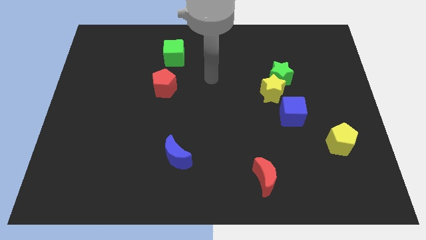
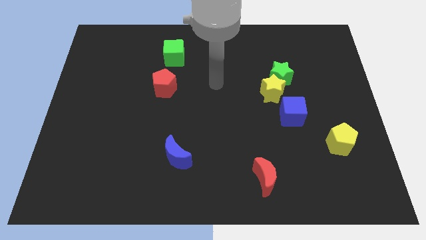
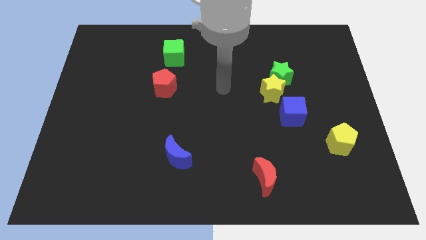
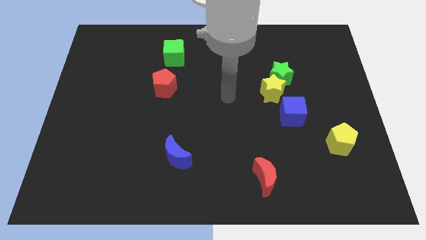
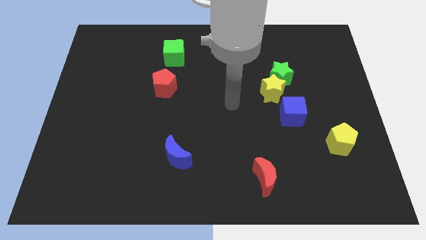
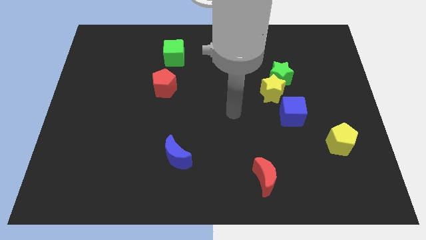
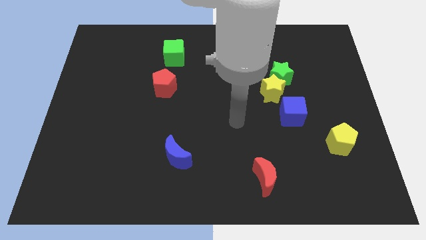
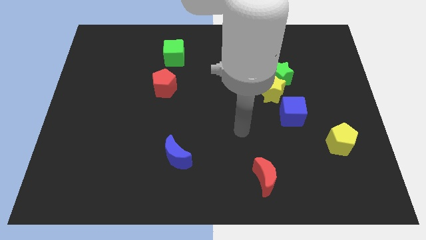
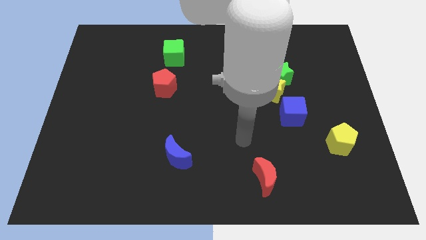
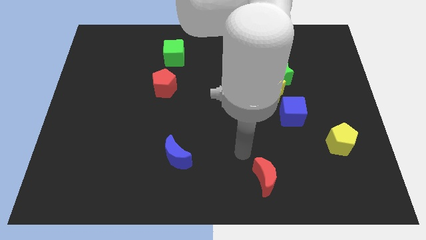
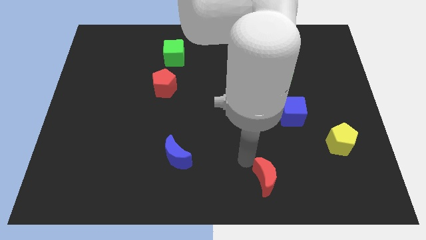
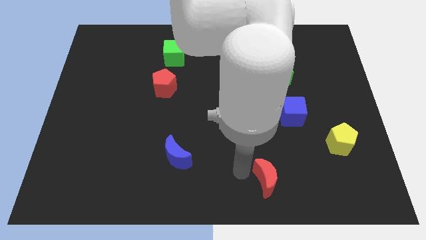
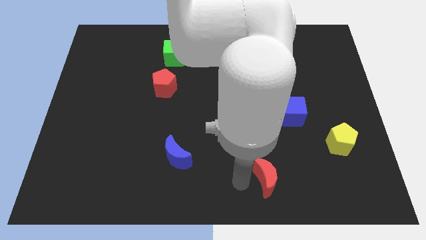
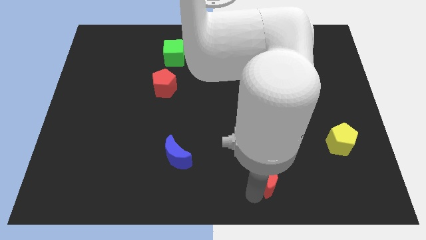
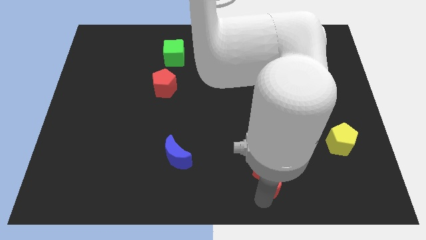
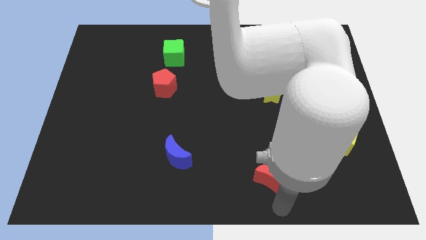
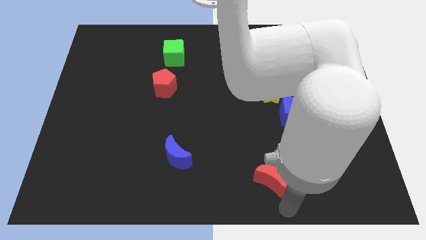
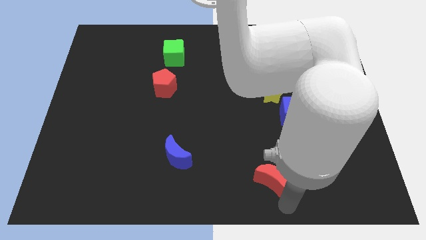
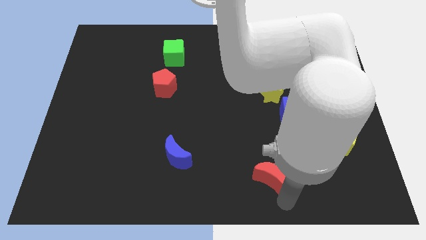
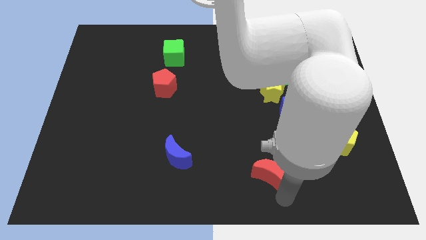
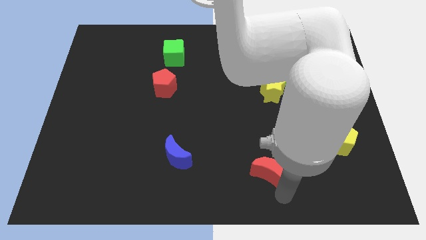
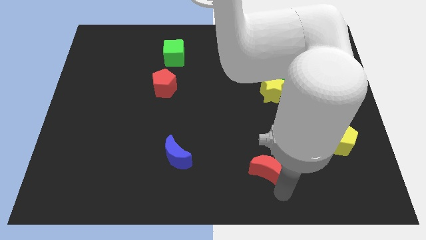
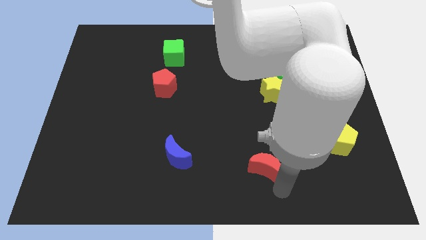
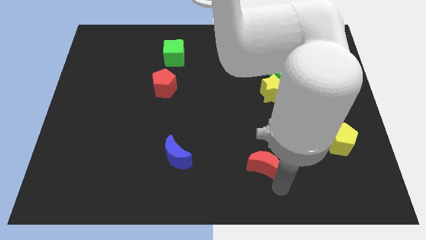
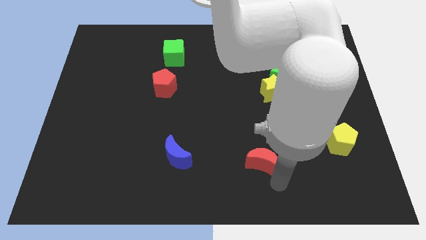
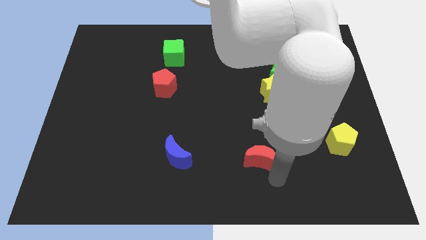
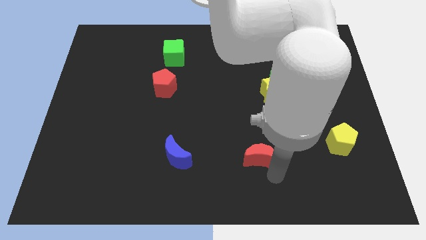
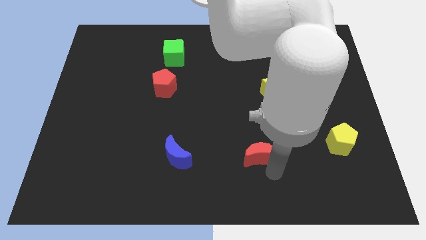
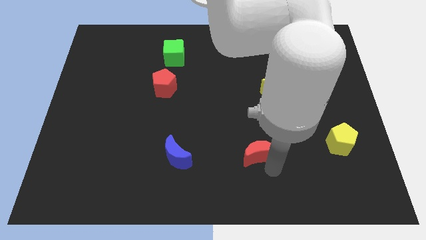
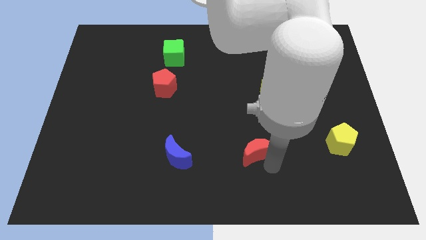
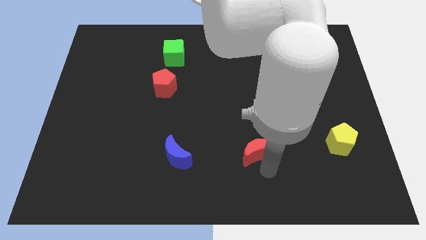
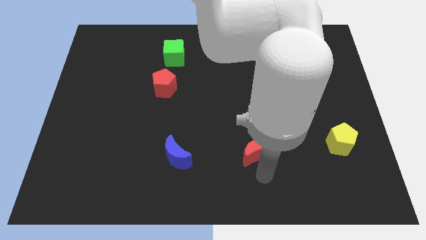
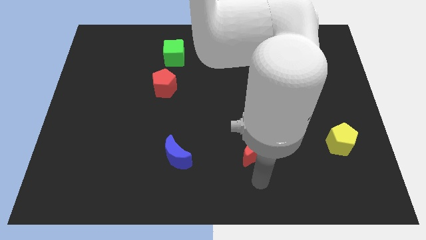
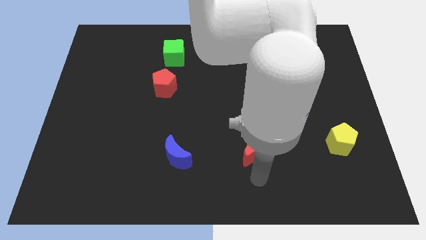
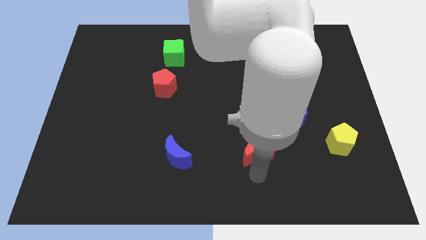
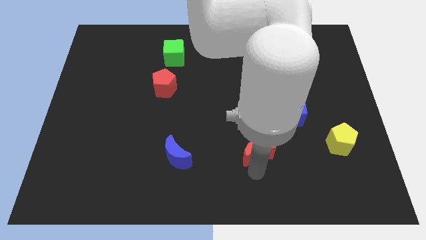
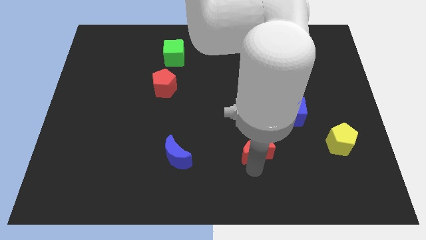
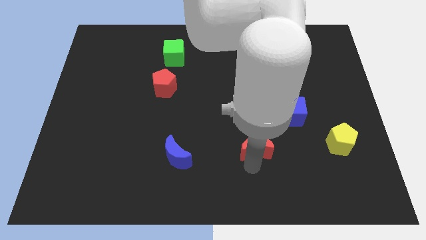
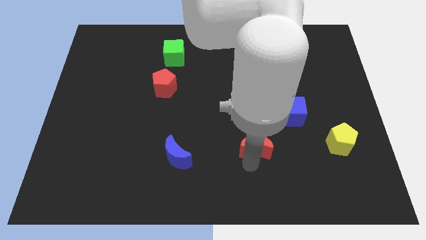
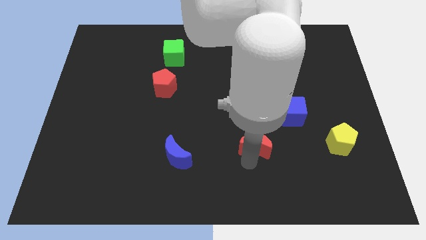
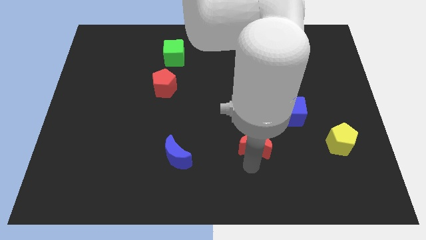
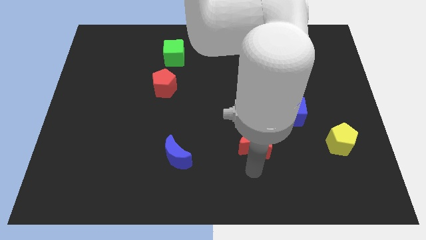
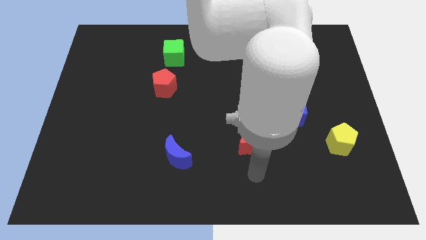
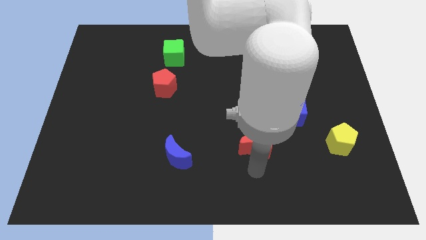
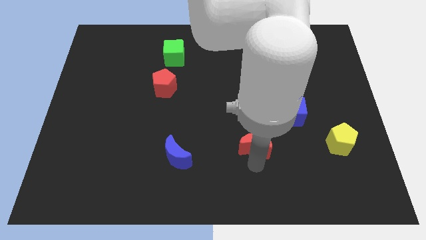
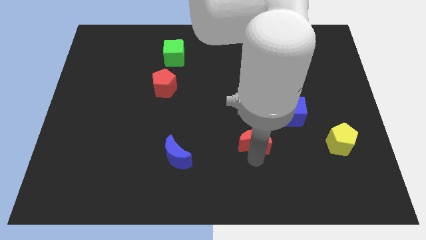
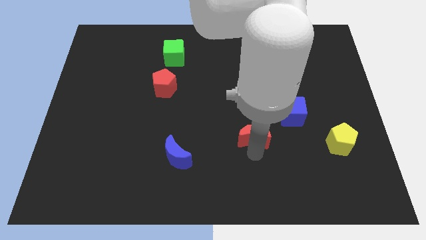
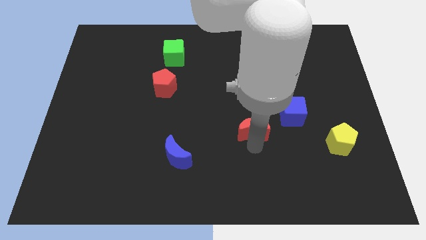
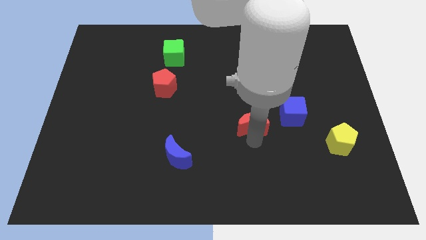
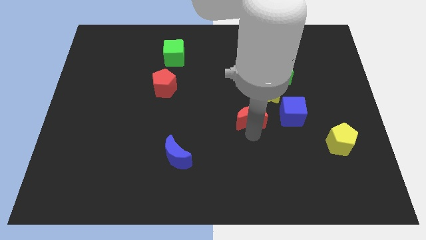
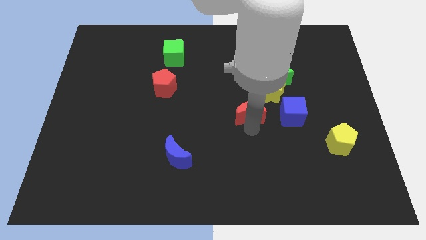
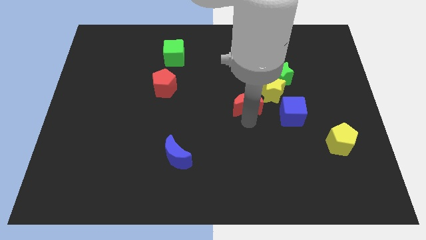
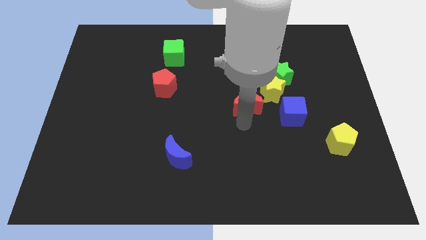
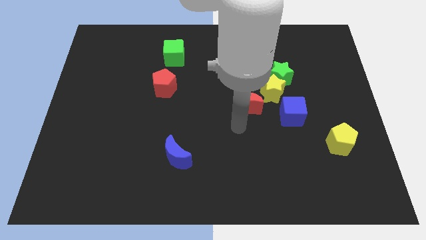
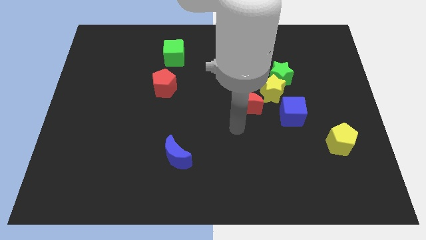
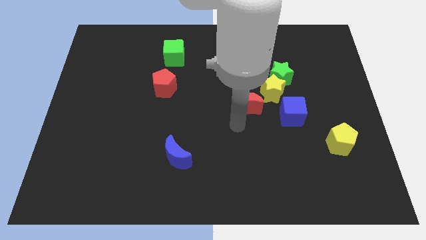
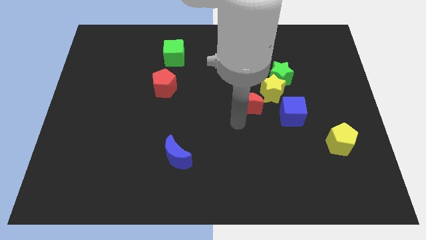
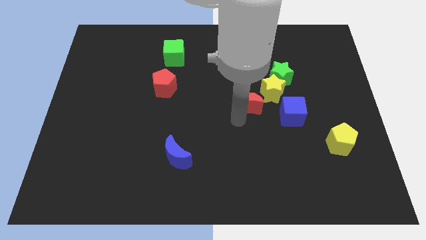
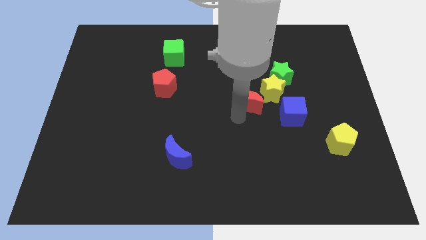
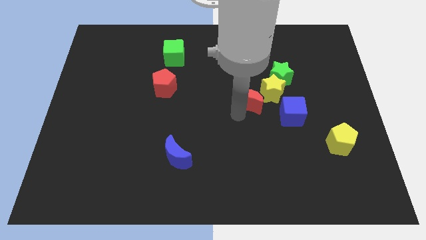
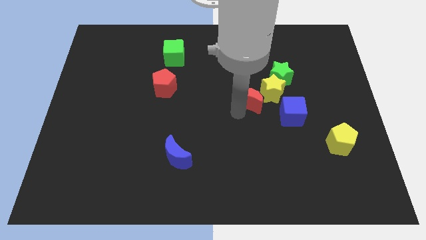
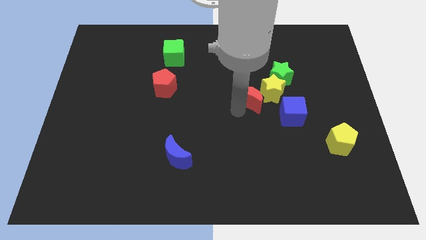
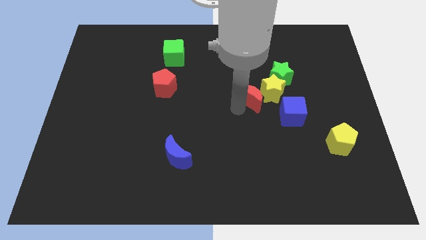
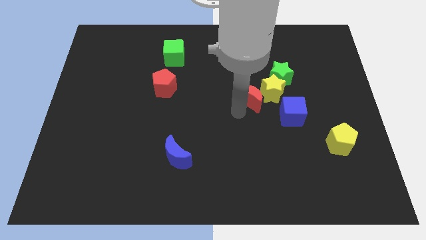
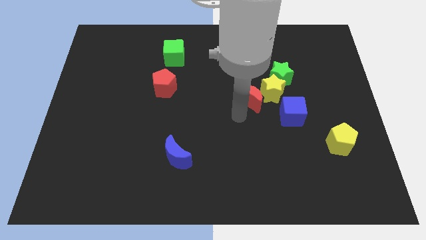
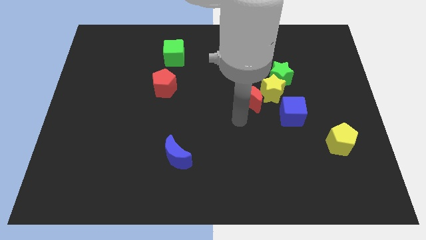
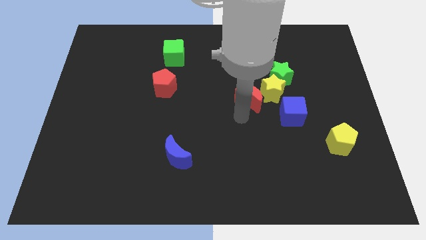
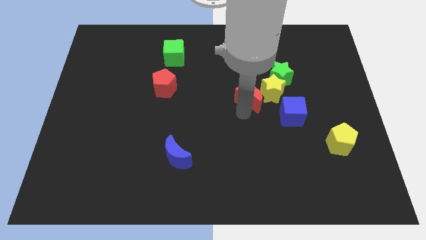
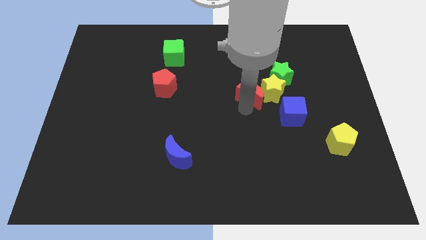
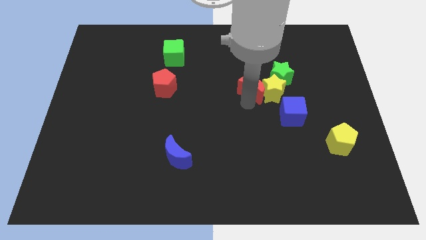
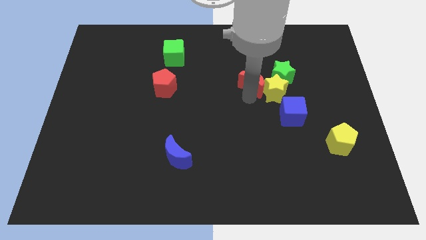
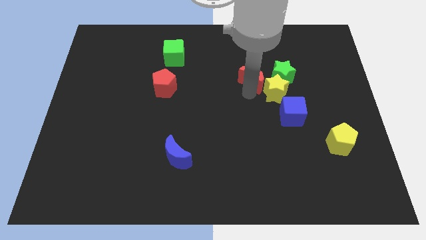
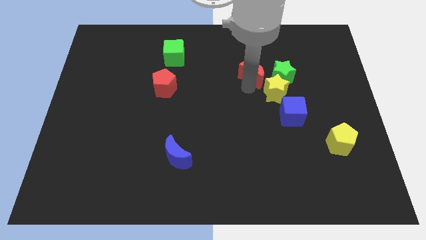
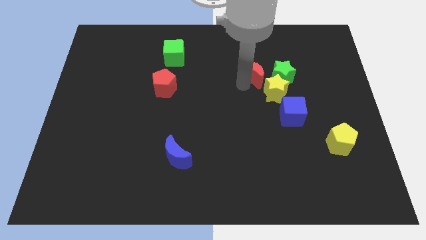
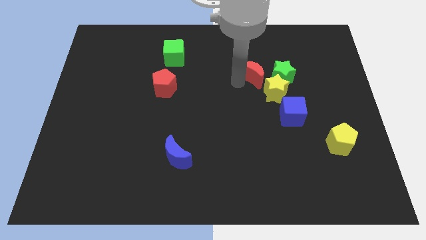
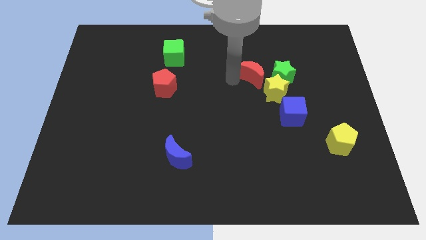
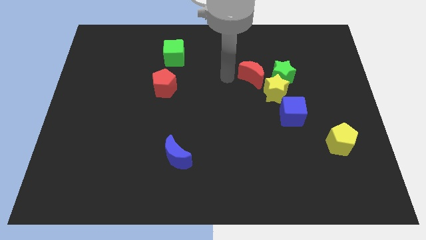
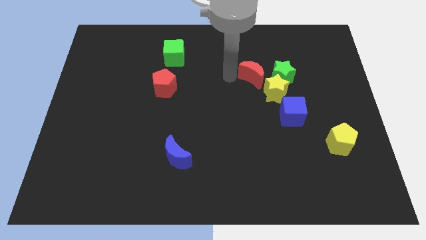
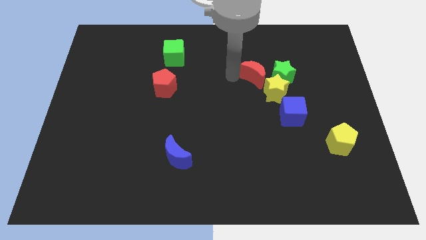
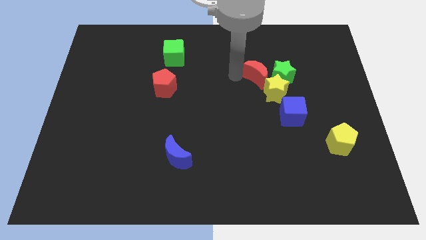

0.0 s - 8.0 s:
put the red moon close to the green star
